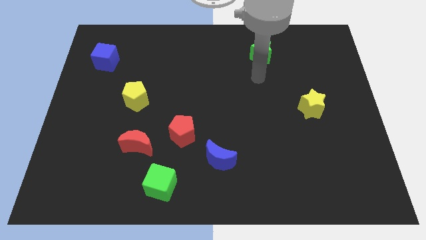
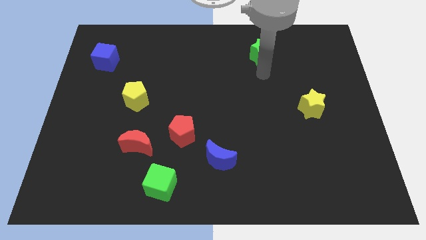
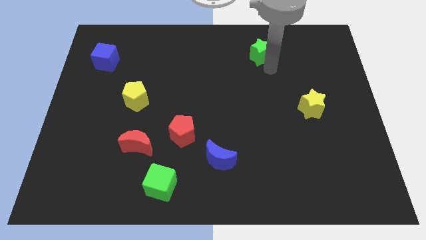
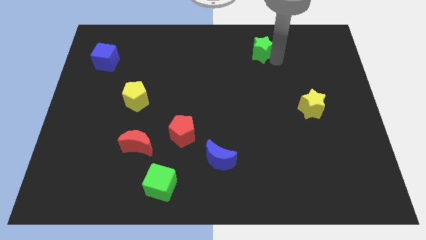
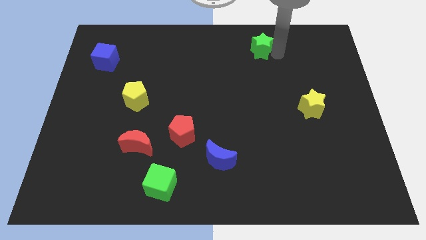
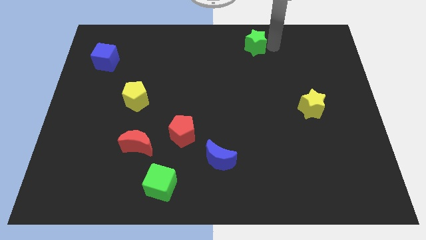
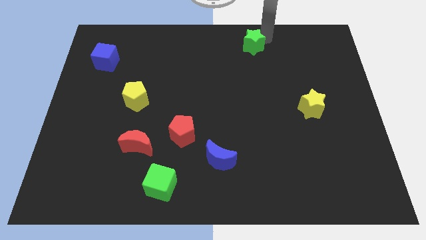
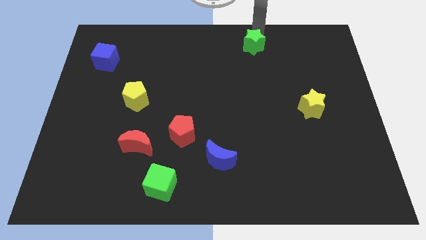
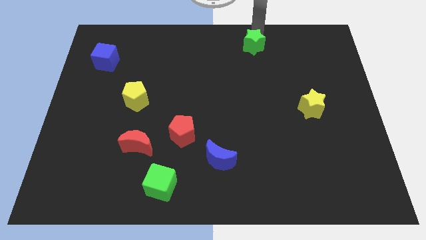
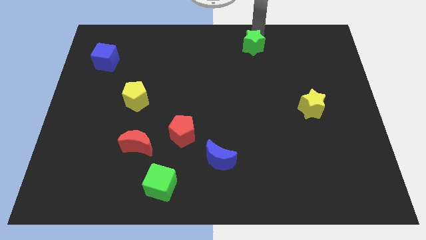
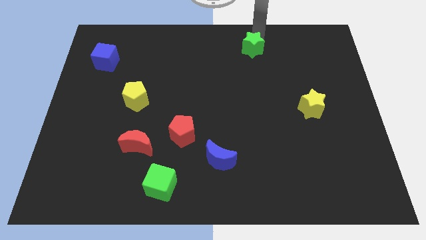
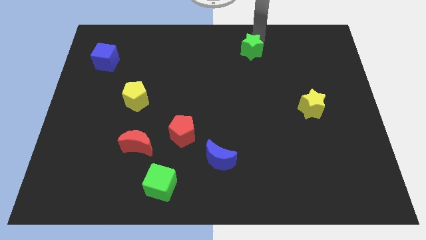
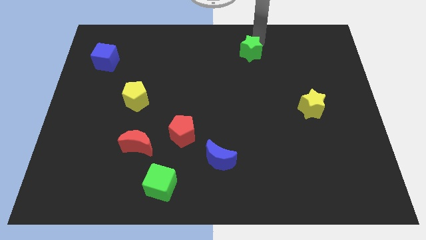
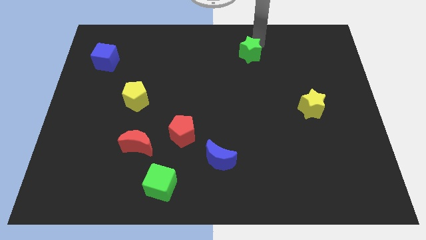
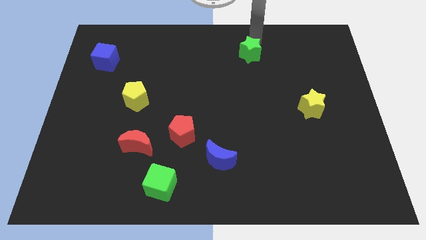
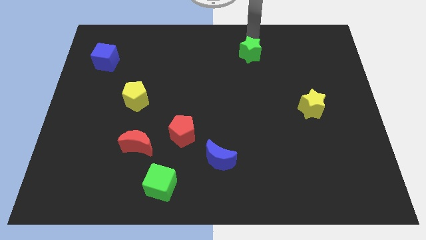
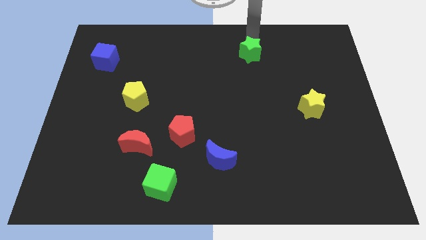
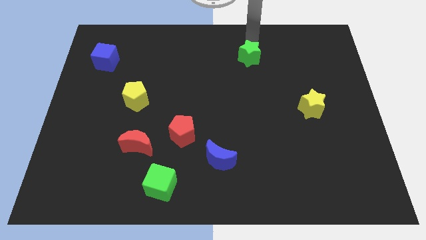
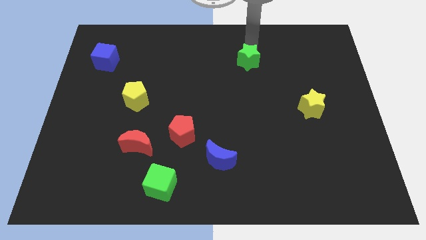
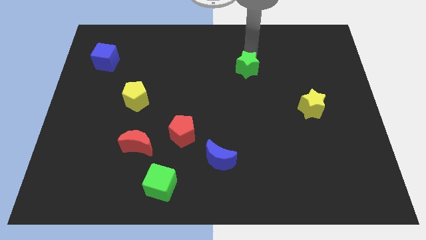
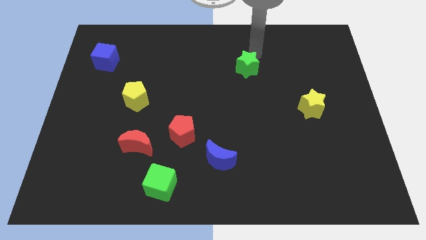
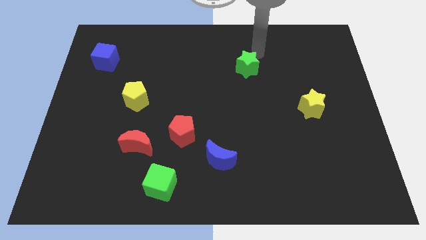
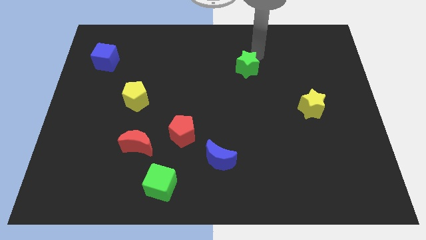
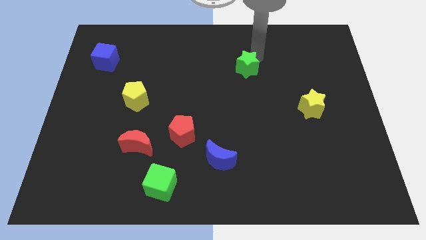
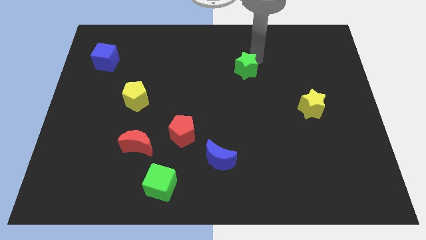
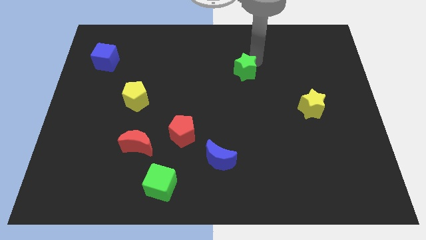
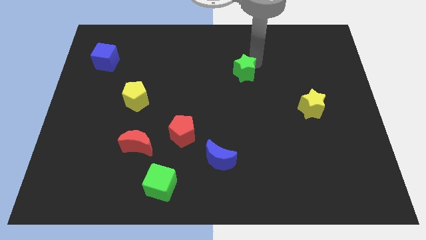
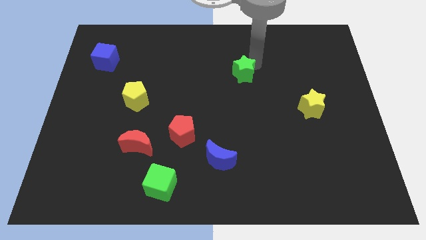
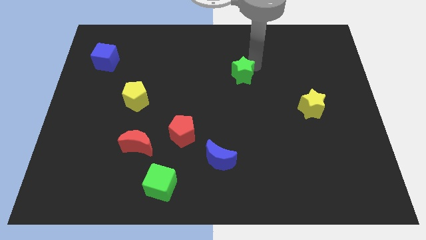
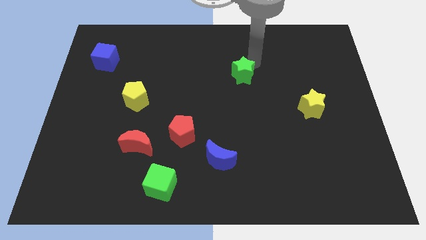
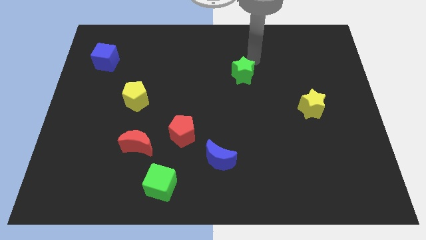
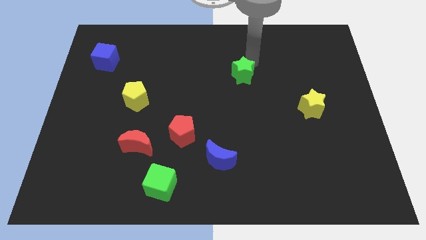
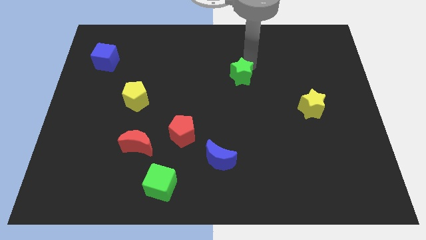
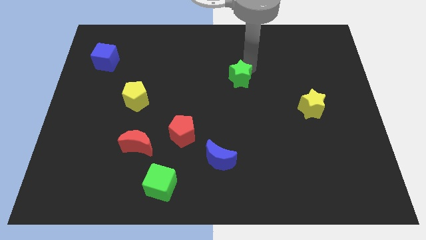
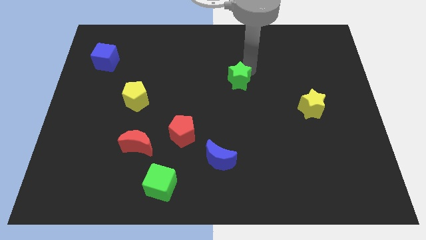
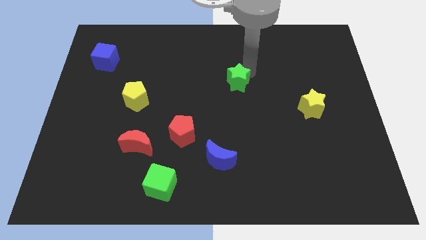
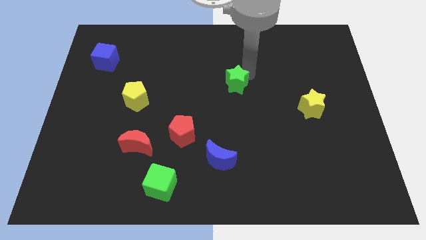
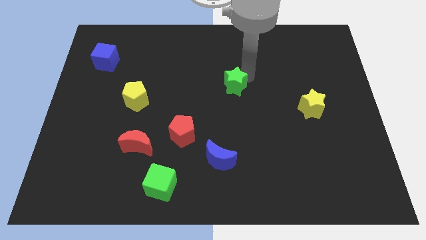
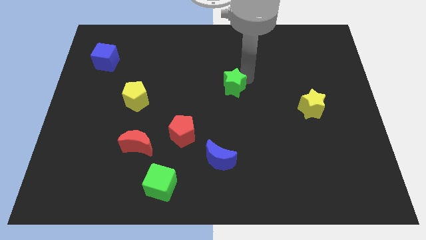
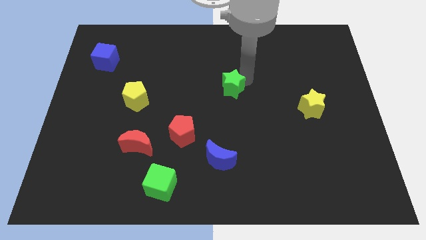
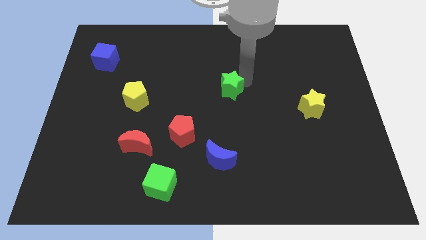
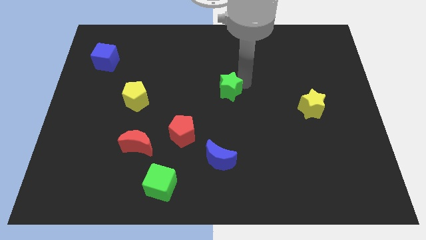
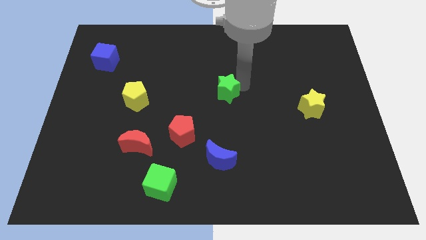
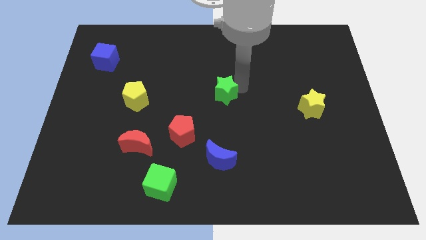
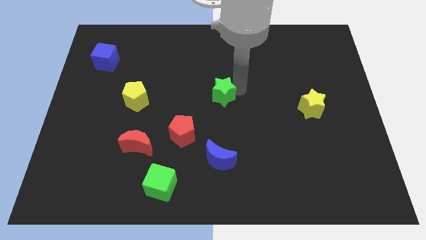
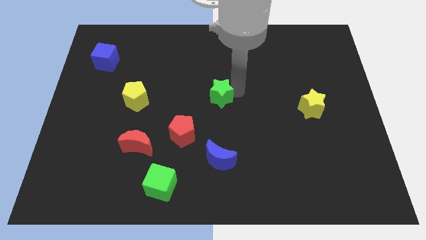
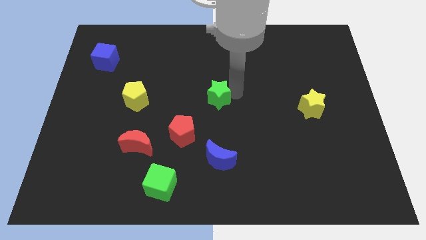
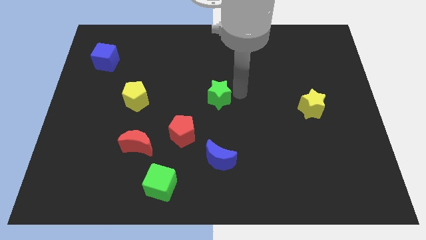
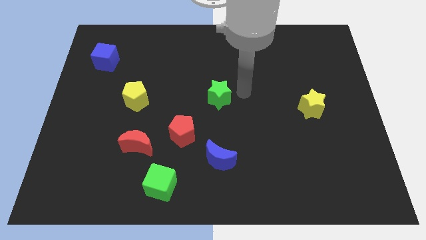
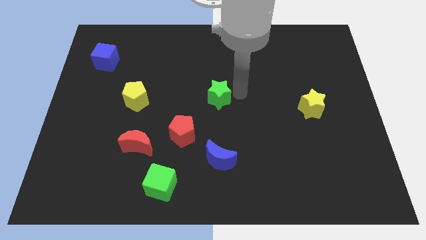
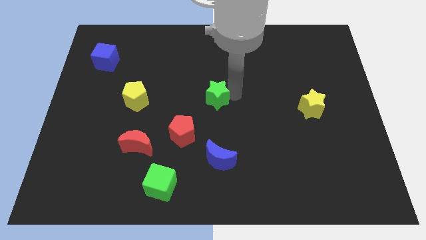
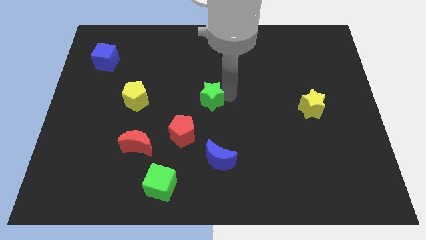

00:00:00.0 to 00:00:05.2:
move the green star down and left

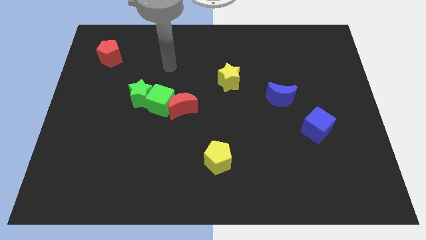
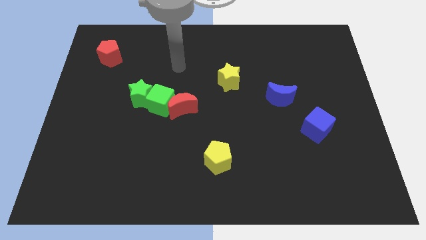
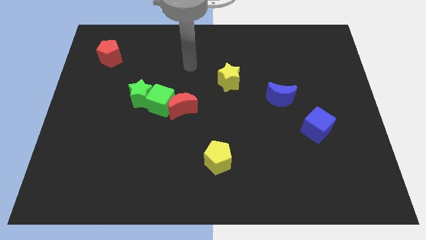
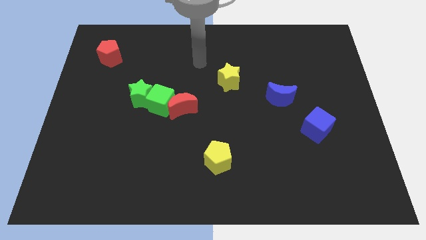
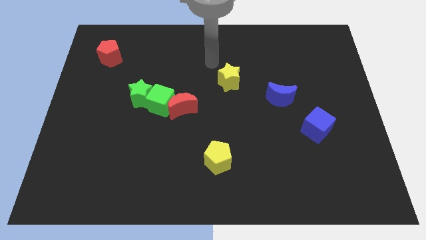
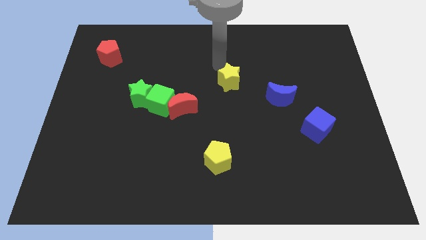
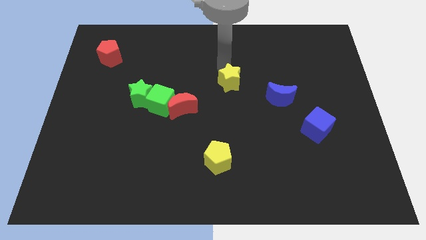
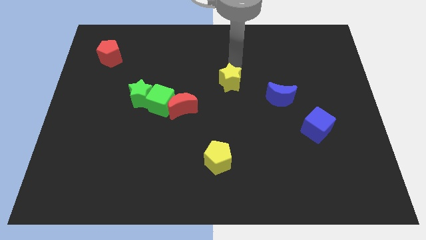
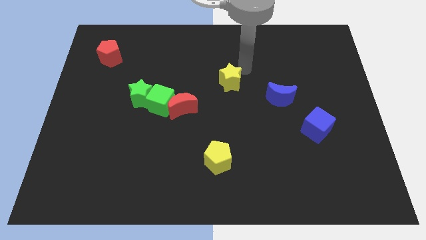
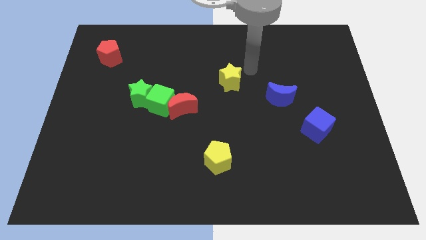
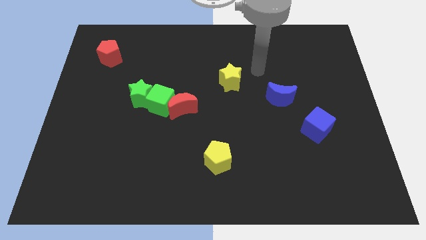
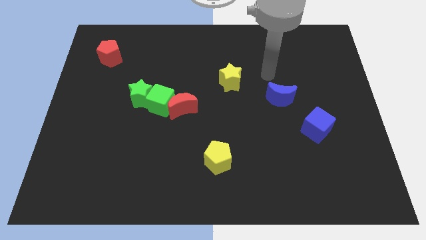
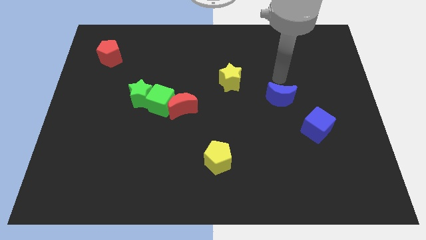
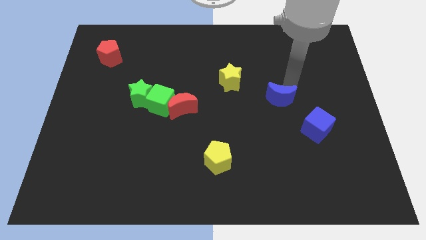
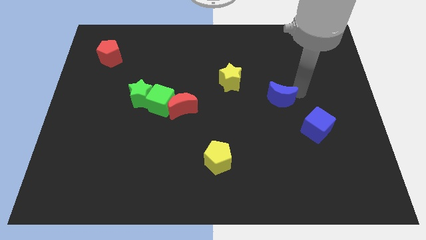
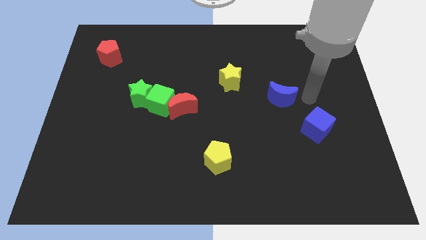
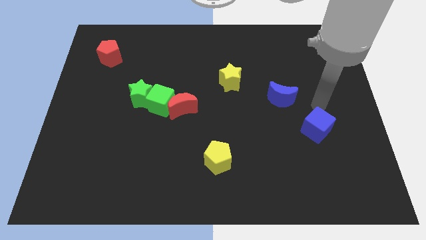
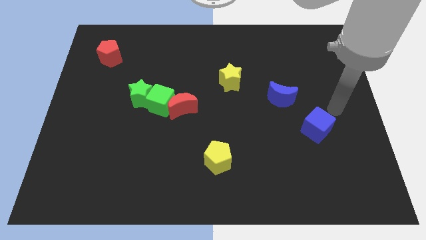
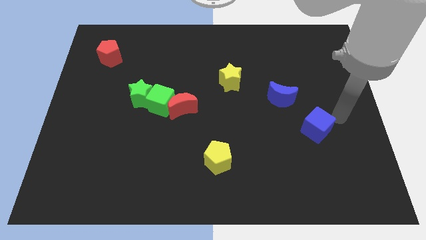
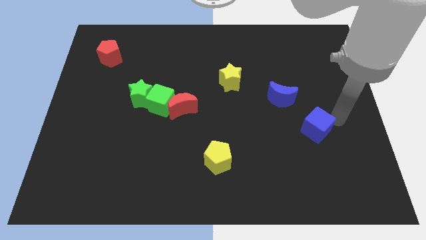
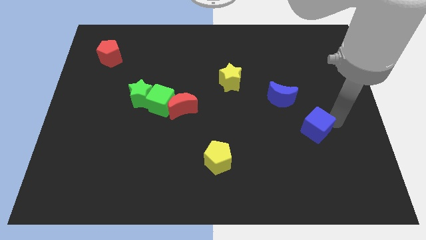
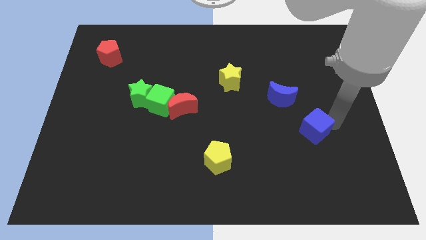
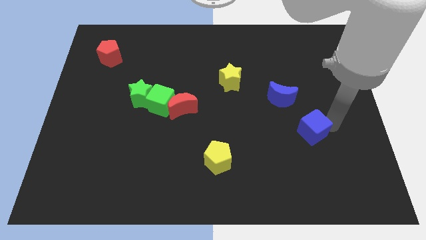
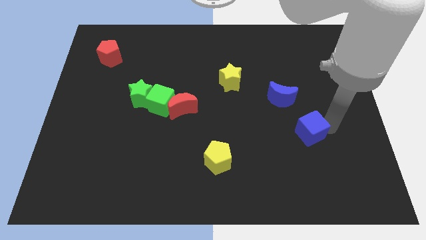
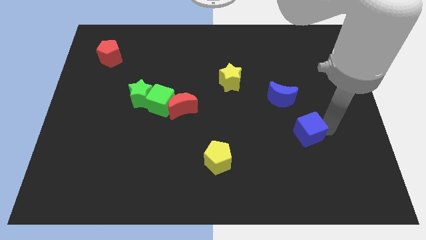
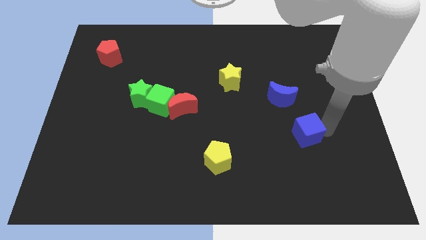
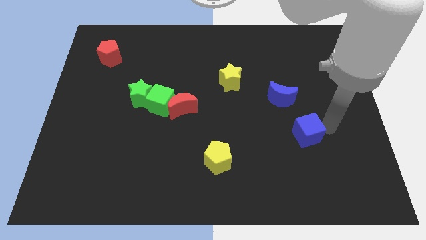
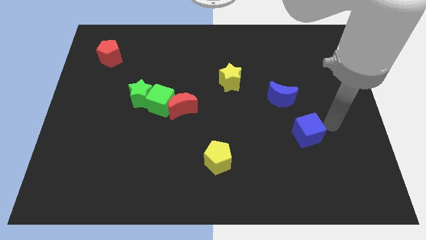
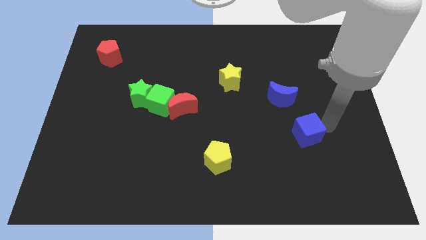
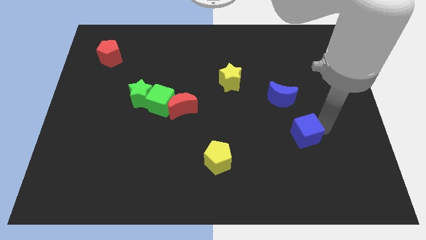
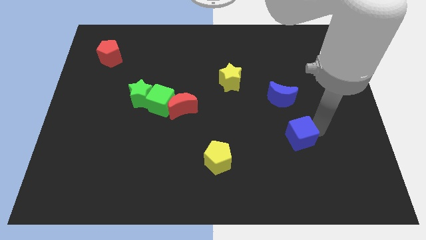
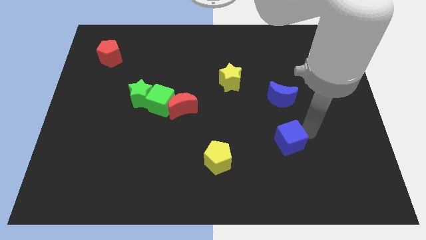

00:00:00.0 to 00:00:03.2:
slightly move the blue cube down and then to the left
